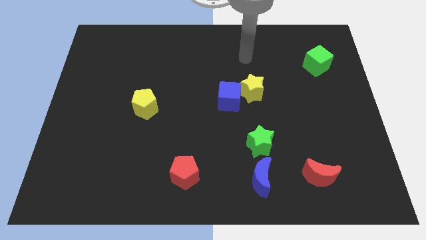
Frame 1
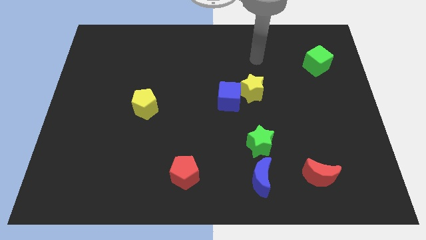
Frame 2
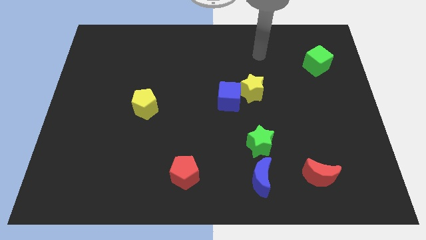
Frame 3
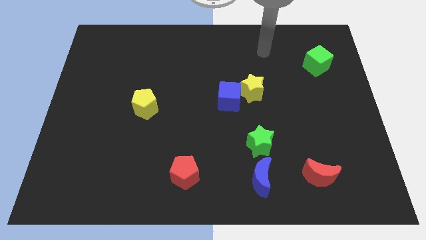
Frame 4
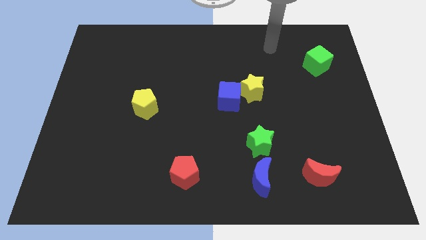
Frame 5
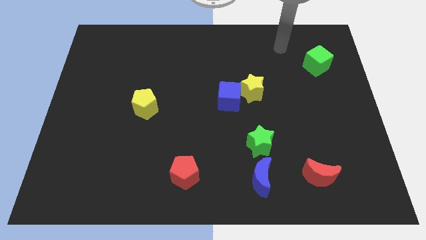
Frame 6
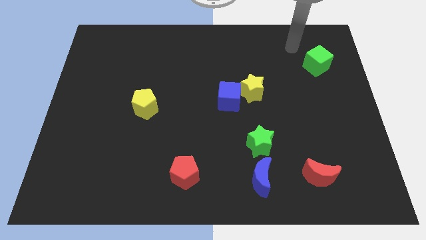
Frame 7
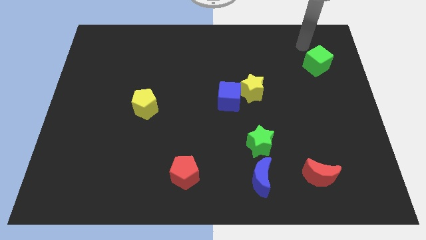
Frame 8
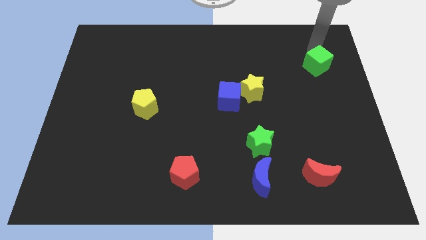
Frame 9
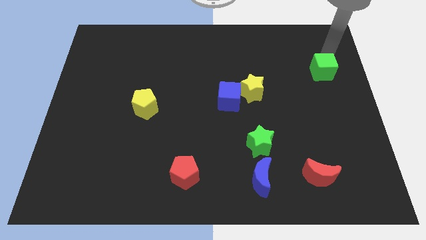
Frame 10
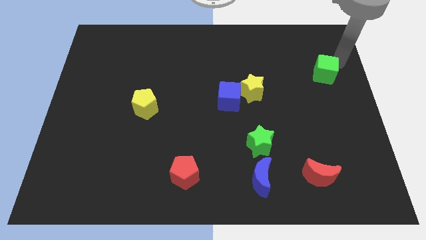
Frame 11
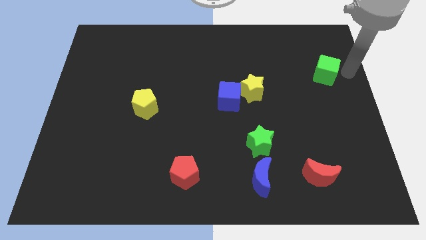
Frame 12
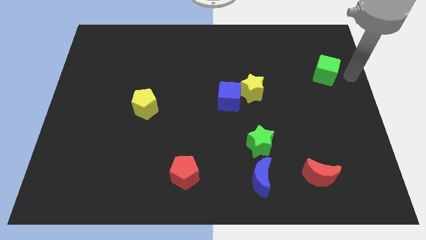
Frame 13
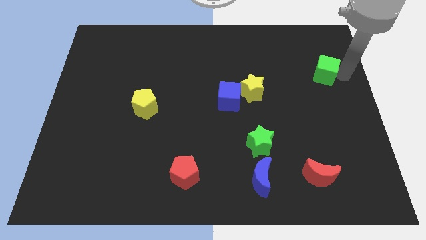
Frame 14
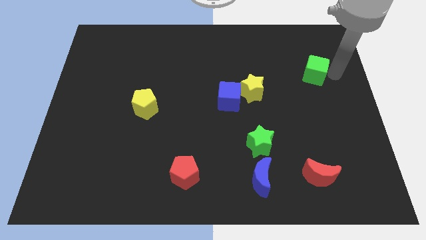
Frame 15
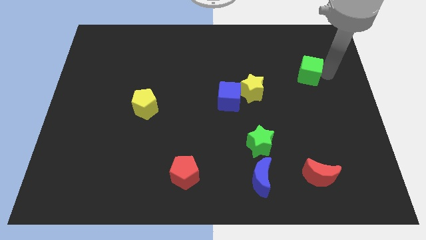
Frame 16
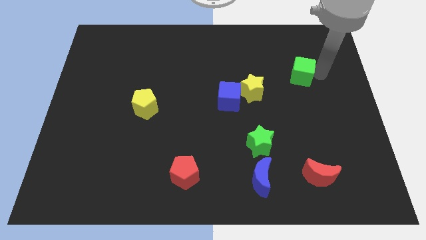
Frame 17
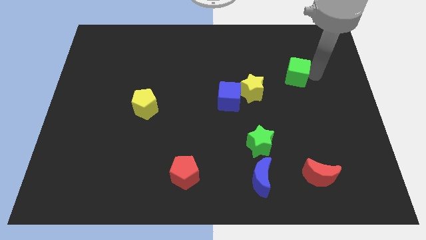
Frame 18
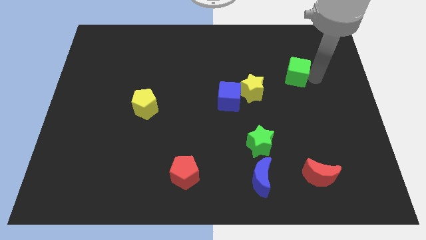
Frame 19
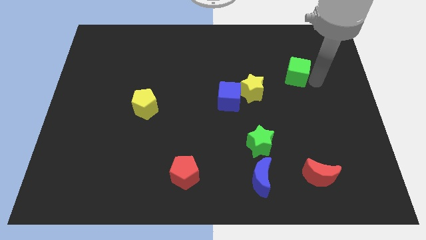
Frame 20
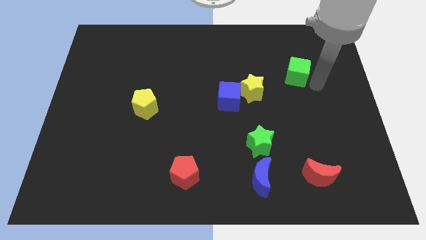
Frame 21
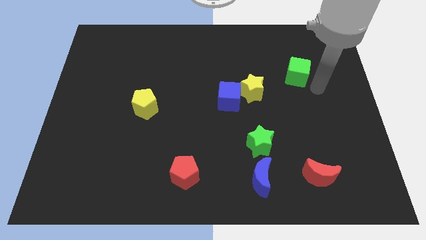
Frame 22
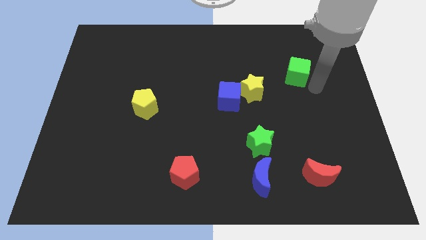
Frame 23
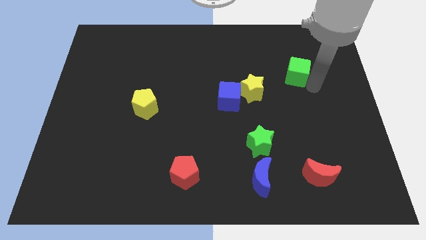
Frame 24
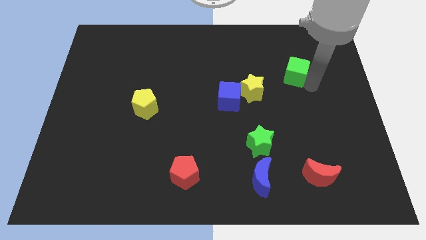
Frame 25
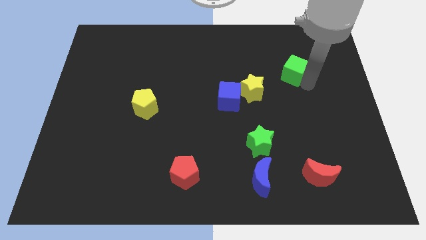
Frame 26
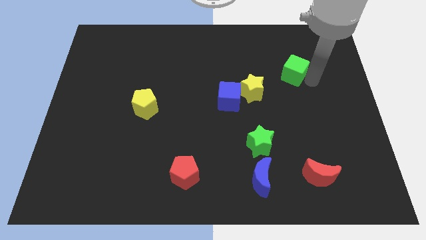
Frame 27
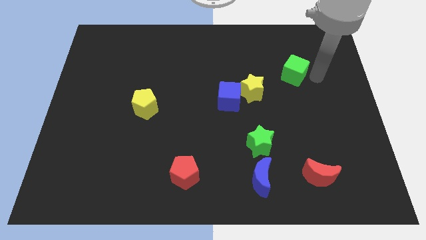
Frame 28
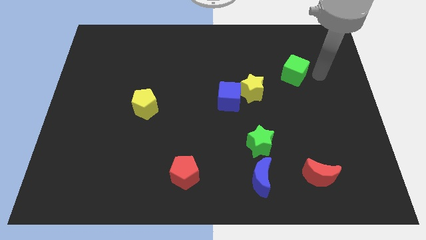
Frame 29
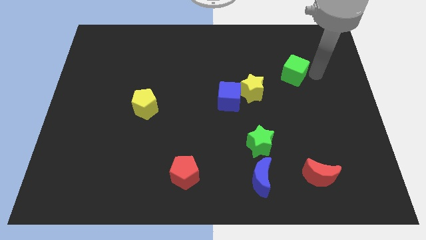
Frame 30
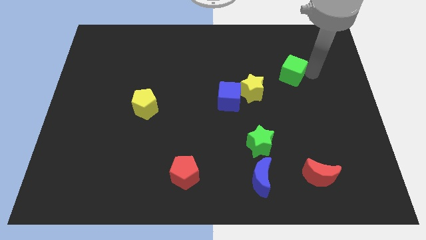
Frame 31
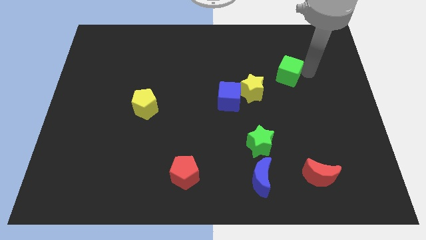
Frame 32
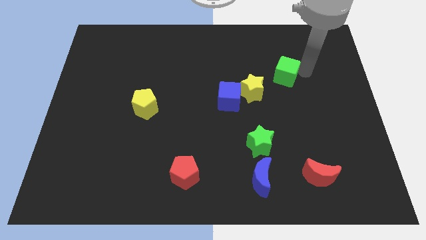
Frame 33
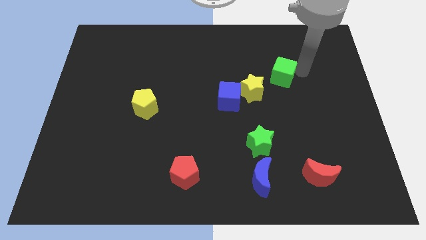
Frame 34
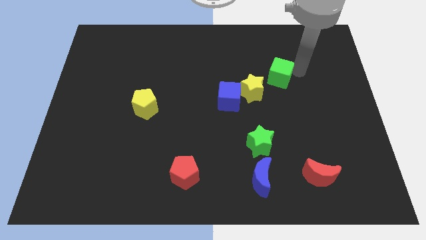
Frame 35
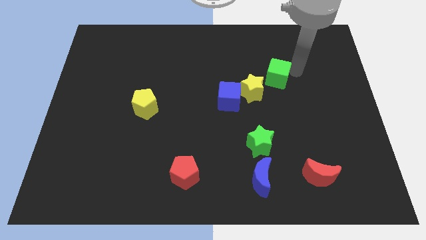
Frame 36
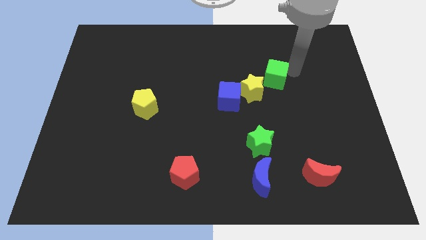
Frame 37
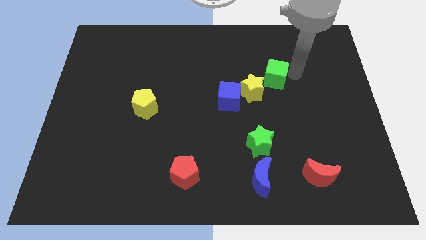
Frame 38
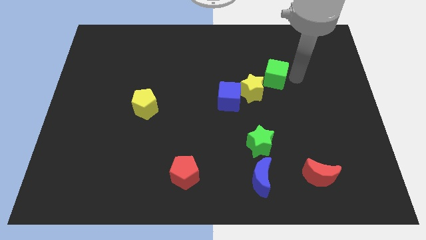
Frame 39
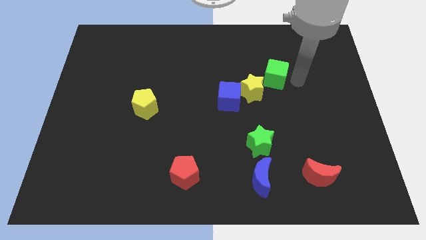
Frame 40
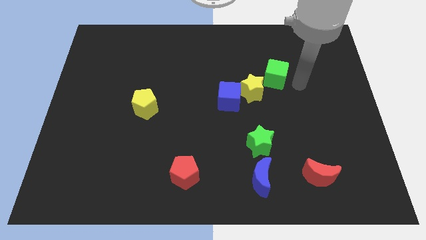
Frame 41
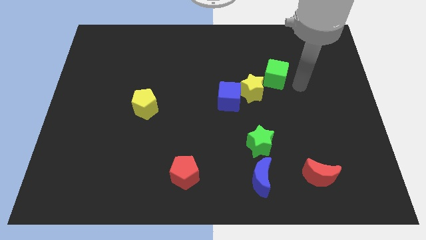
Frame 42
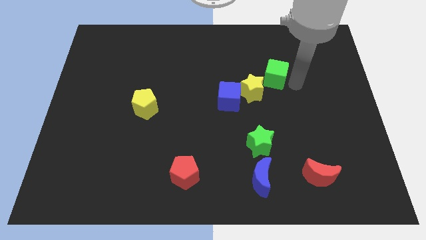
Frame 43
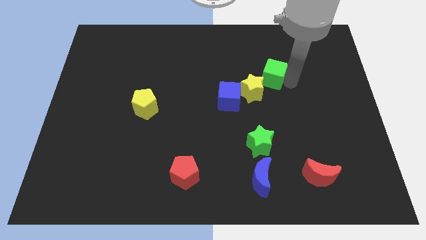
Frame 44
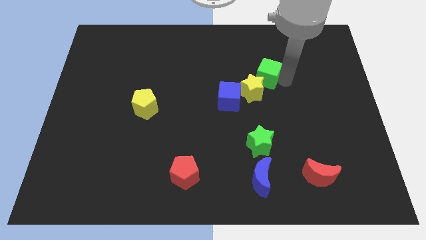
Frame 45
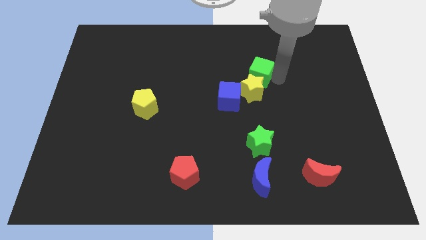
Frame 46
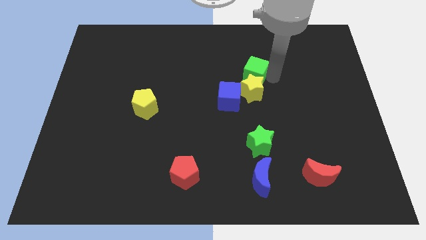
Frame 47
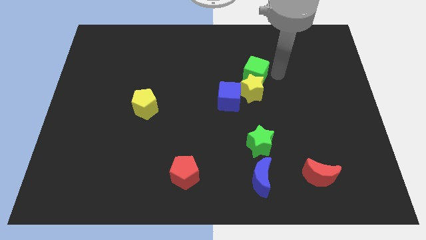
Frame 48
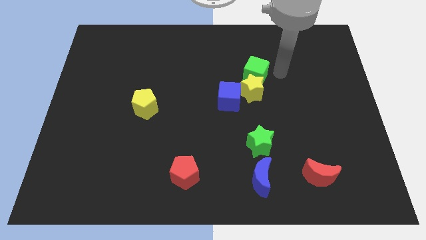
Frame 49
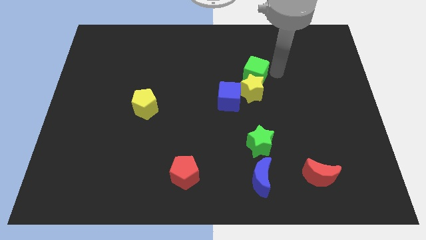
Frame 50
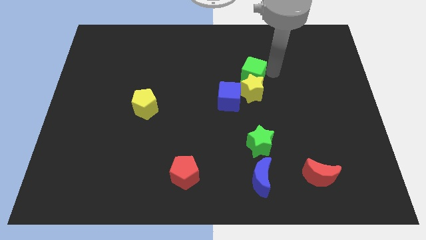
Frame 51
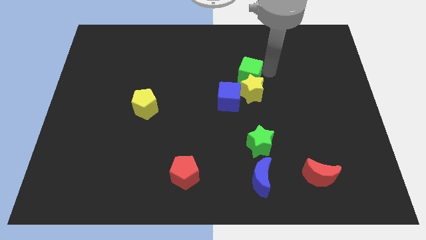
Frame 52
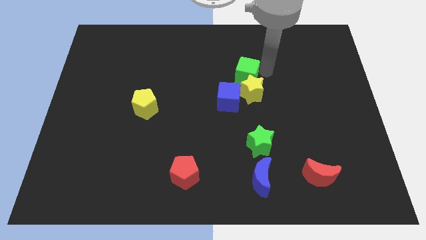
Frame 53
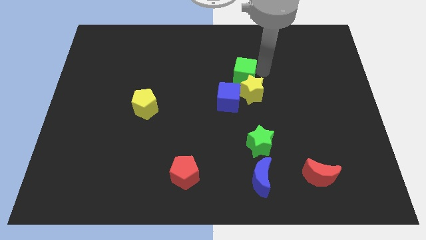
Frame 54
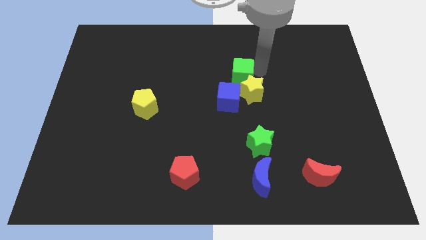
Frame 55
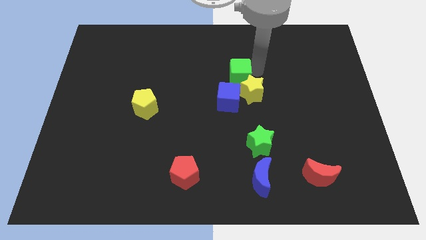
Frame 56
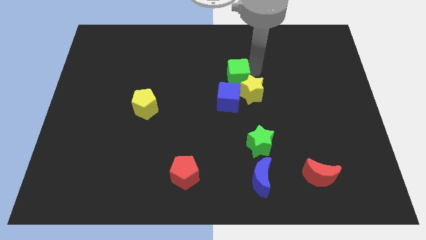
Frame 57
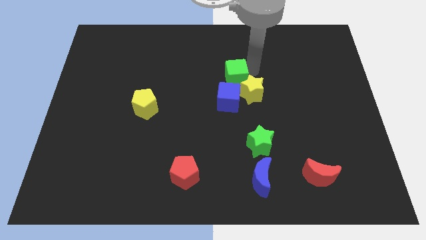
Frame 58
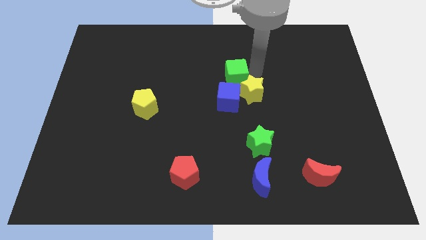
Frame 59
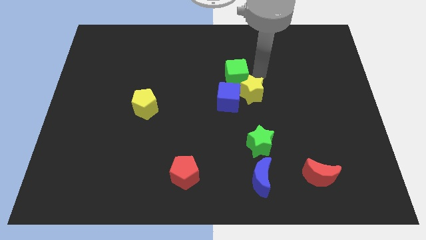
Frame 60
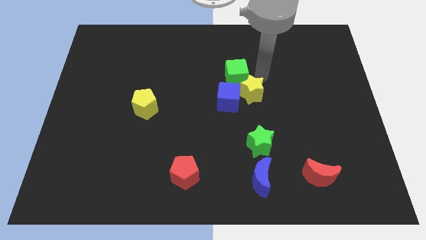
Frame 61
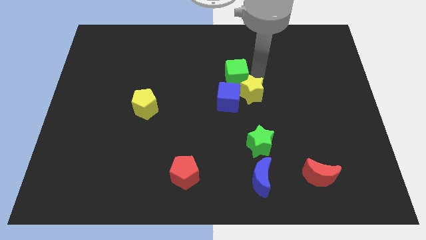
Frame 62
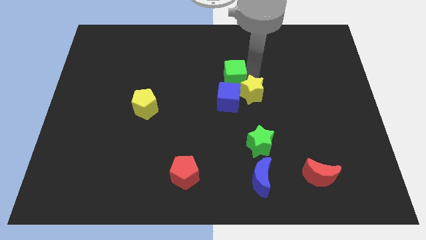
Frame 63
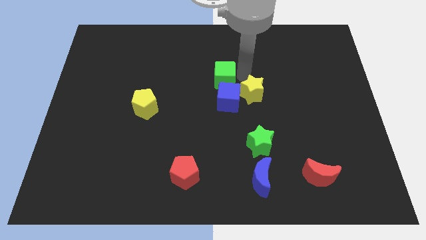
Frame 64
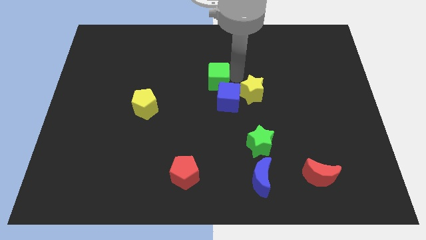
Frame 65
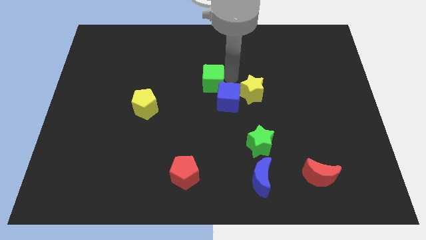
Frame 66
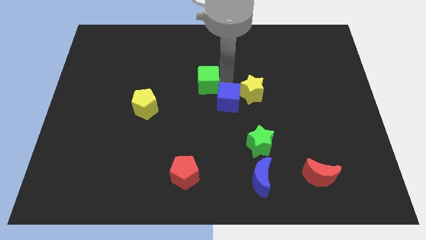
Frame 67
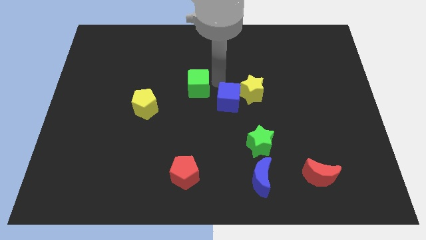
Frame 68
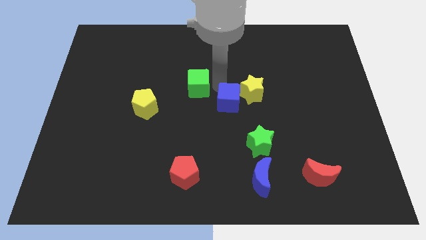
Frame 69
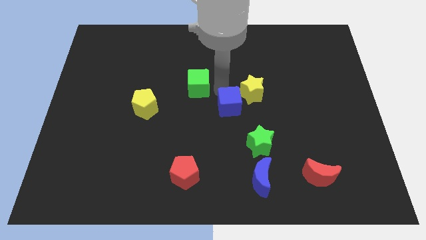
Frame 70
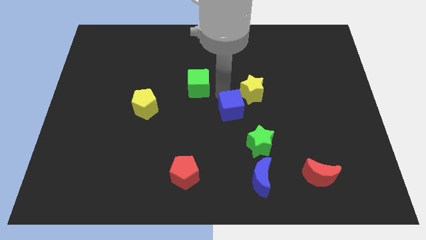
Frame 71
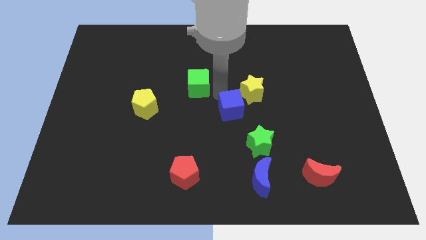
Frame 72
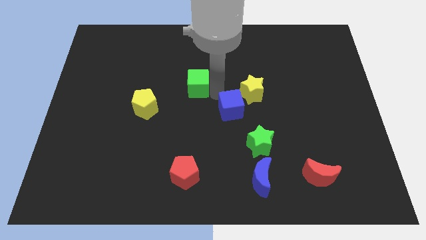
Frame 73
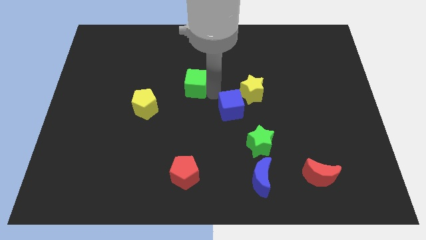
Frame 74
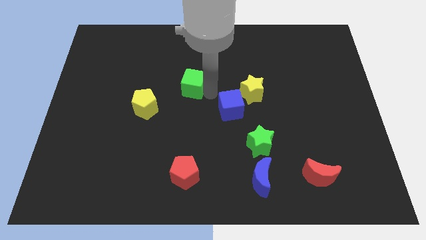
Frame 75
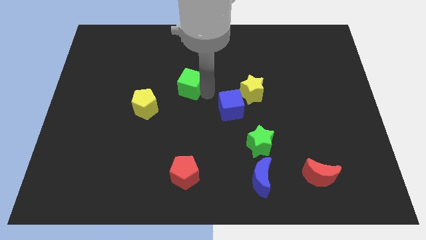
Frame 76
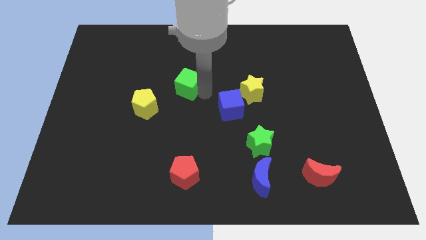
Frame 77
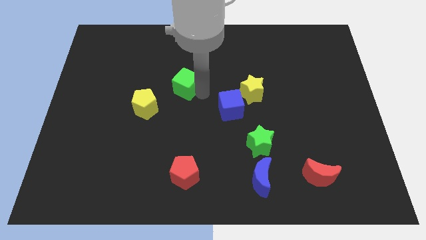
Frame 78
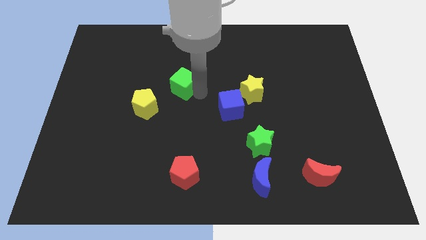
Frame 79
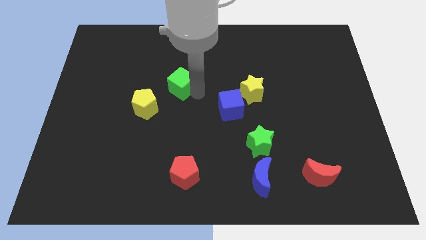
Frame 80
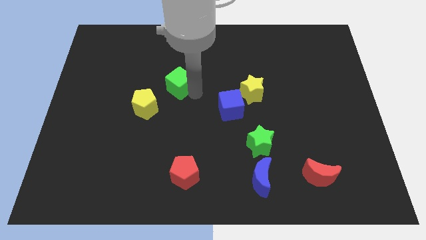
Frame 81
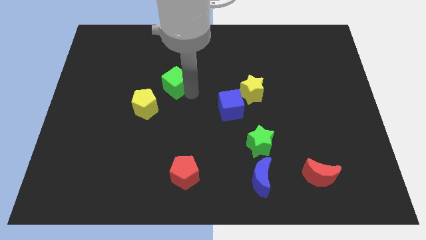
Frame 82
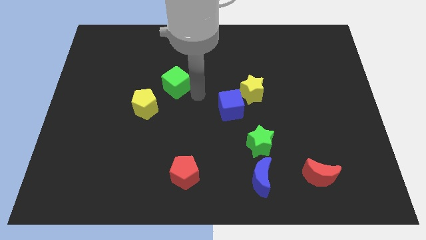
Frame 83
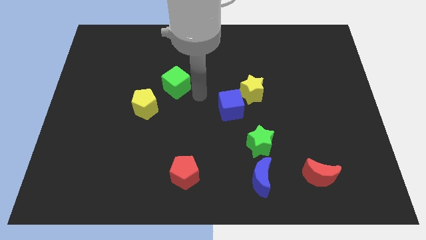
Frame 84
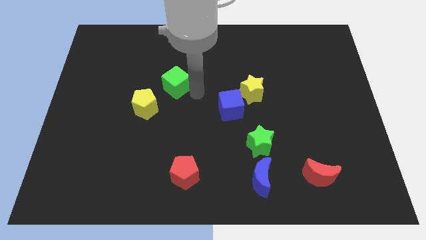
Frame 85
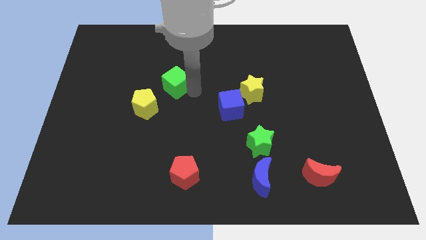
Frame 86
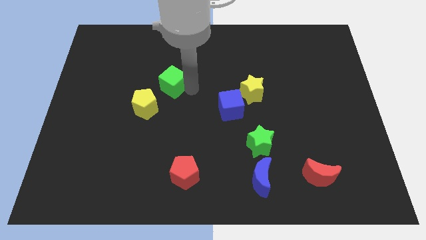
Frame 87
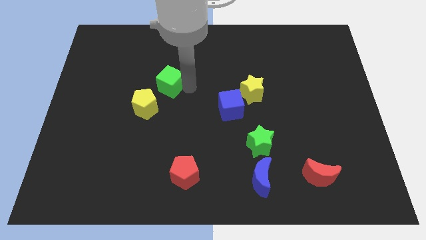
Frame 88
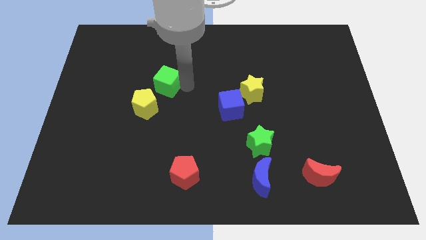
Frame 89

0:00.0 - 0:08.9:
put the green cube to the top side of the yellow pentagon
